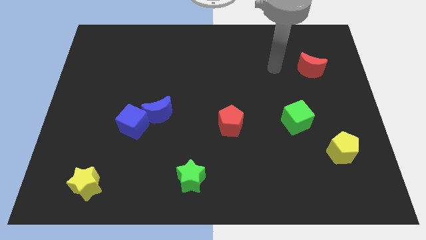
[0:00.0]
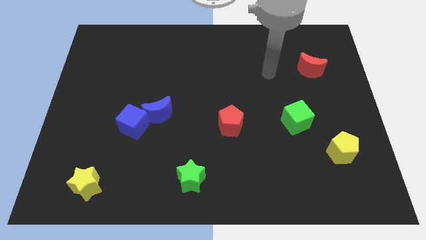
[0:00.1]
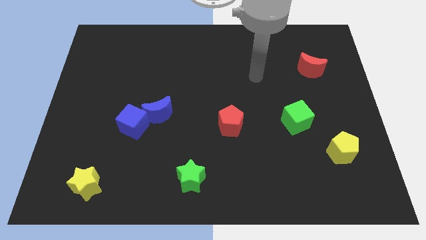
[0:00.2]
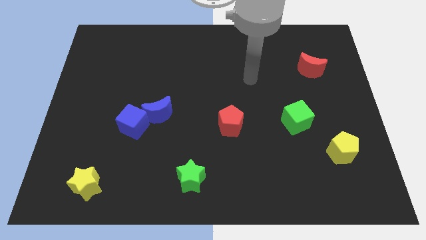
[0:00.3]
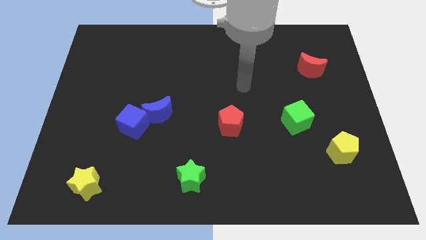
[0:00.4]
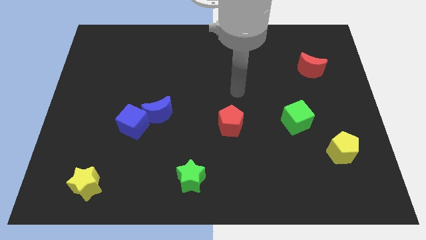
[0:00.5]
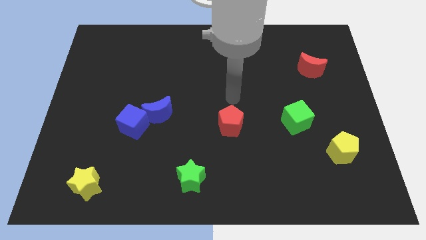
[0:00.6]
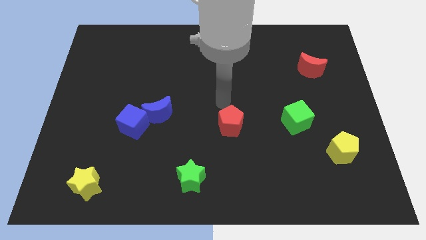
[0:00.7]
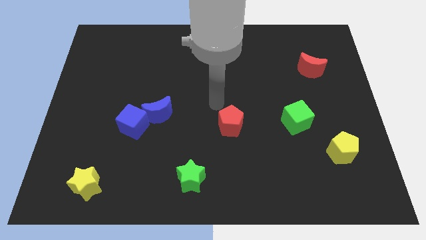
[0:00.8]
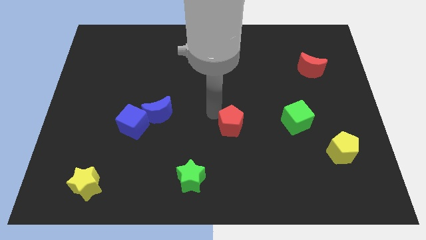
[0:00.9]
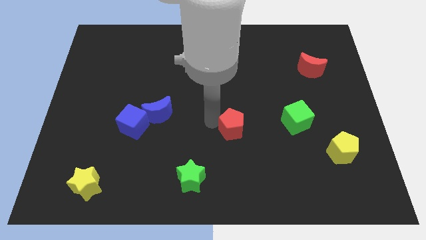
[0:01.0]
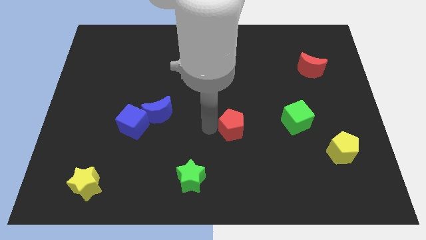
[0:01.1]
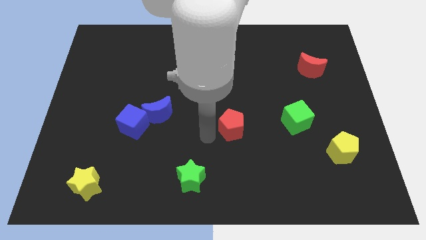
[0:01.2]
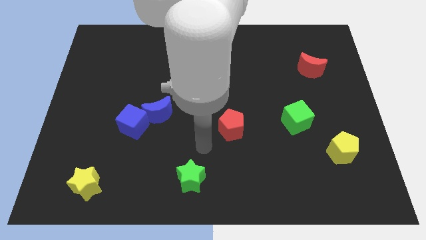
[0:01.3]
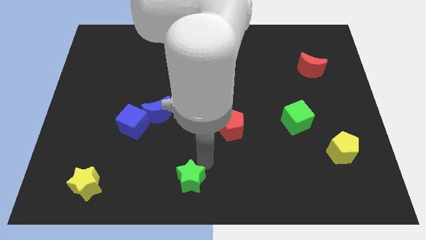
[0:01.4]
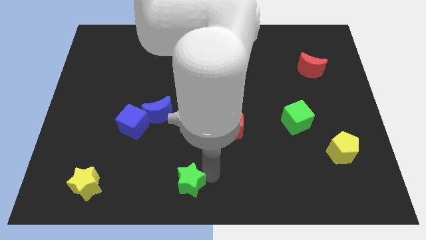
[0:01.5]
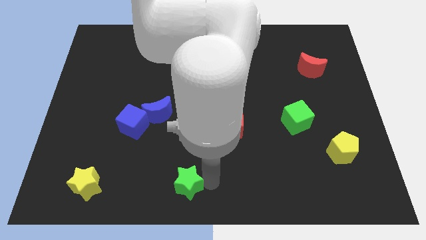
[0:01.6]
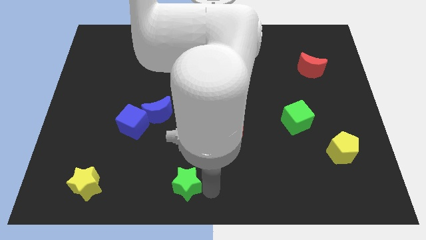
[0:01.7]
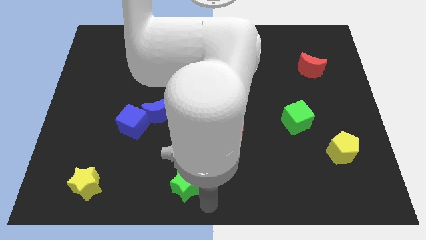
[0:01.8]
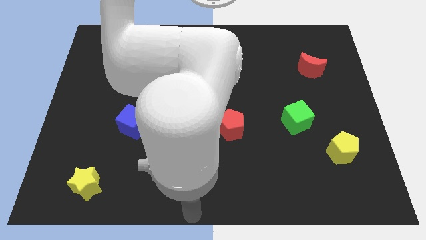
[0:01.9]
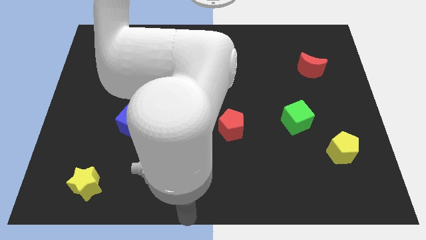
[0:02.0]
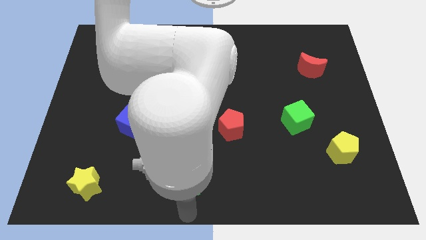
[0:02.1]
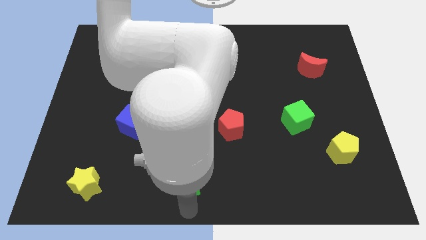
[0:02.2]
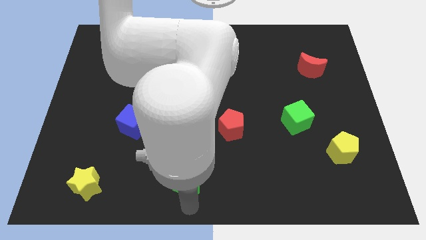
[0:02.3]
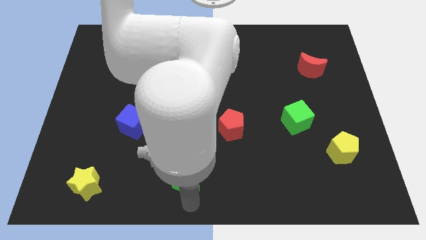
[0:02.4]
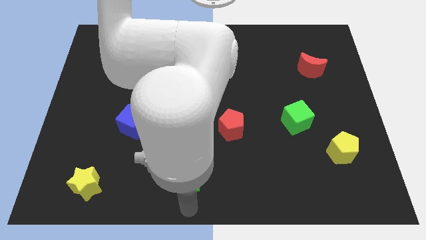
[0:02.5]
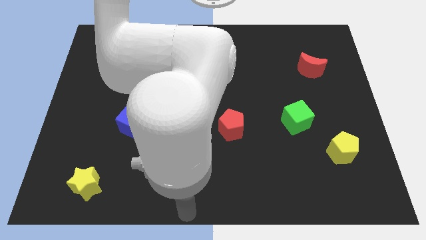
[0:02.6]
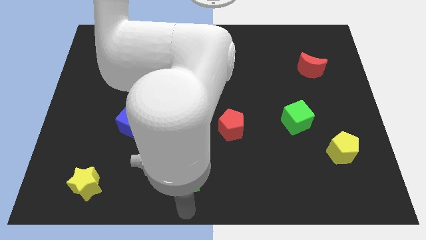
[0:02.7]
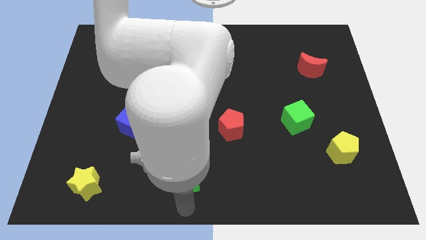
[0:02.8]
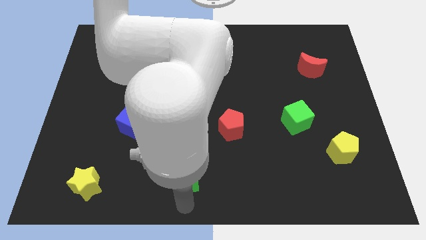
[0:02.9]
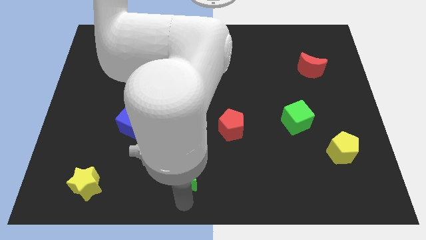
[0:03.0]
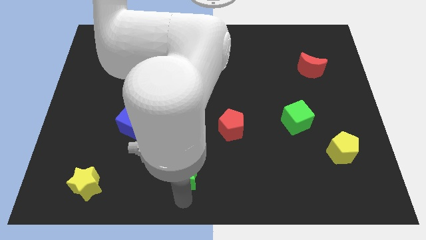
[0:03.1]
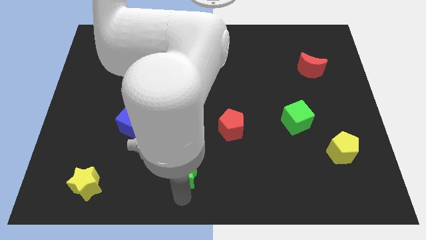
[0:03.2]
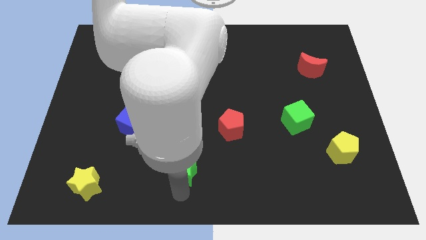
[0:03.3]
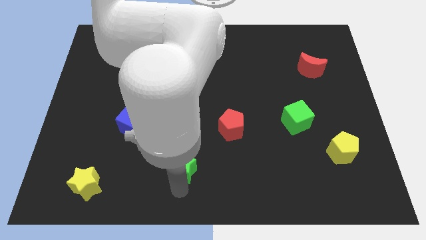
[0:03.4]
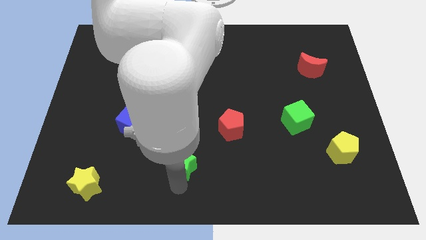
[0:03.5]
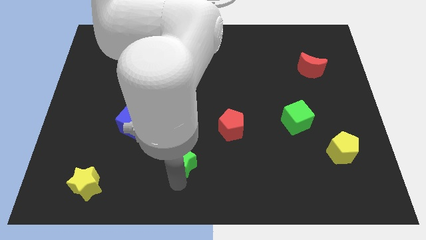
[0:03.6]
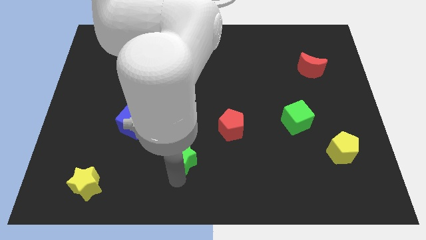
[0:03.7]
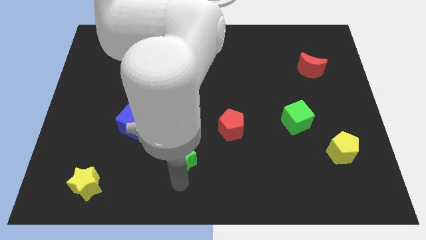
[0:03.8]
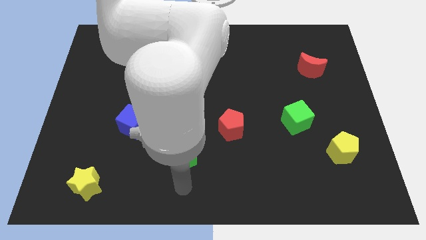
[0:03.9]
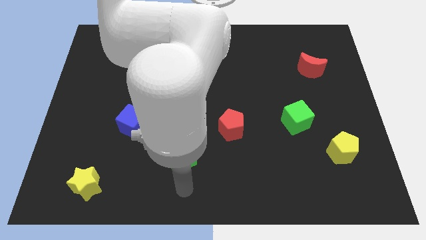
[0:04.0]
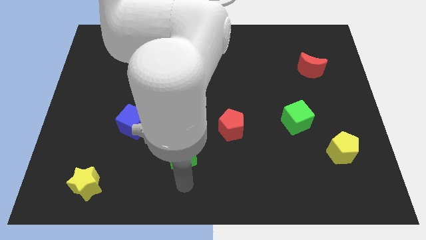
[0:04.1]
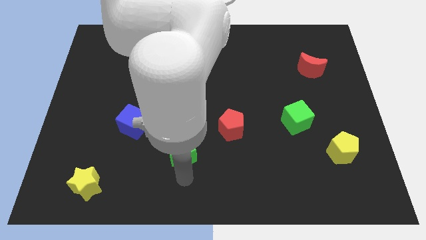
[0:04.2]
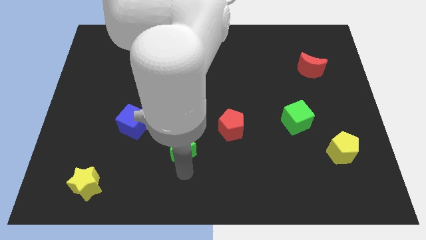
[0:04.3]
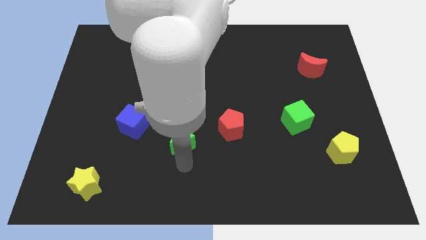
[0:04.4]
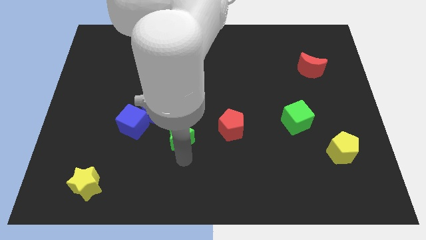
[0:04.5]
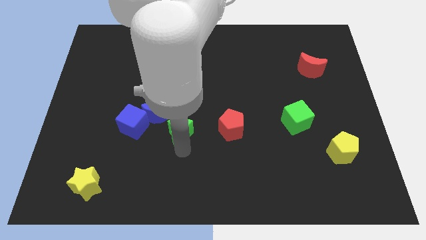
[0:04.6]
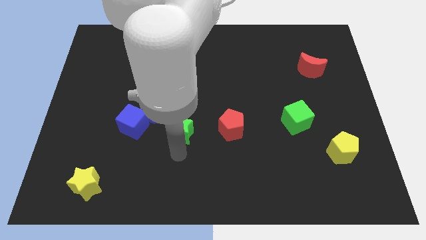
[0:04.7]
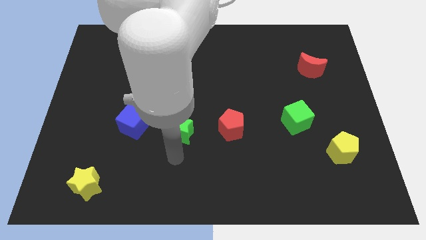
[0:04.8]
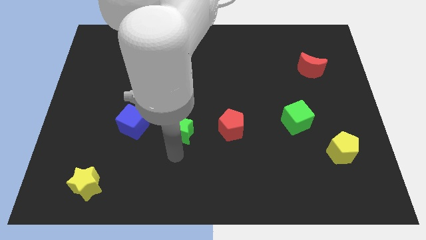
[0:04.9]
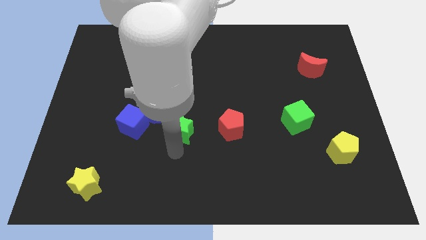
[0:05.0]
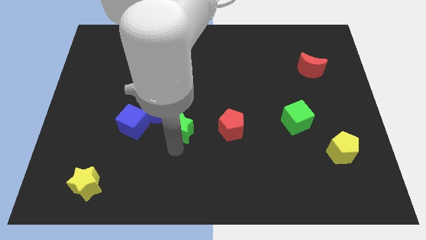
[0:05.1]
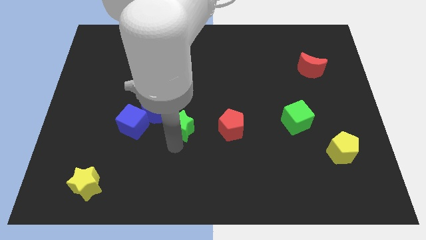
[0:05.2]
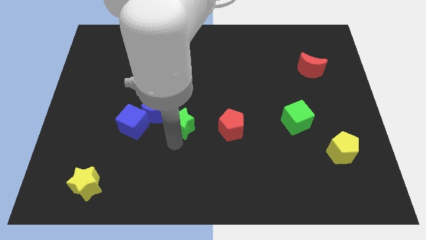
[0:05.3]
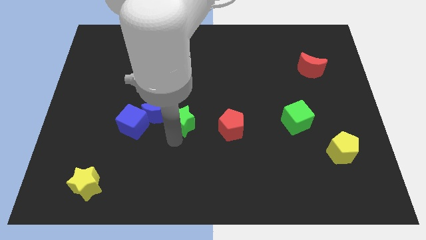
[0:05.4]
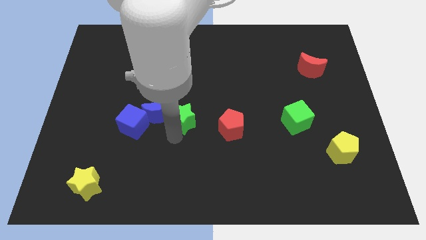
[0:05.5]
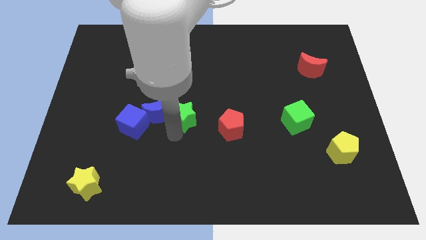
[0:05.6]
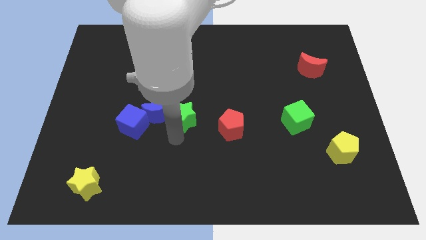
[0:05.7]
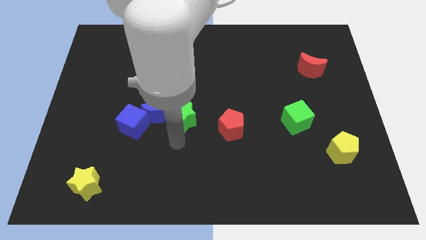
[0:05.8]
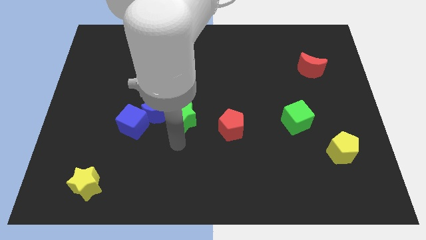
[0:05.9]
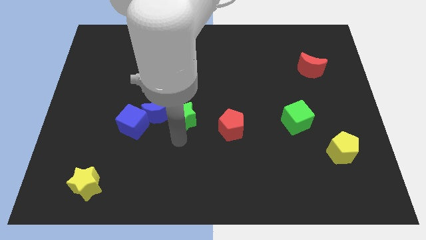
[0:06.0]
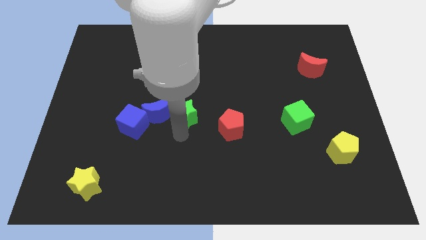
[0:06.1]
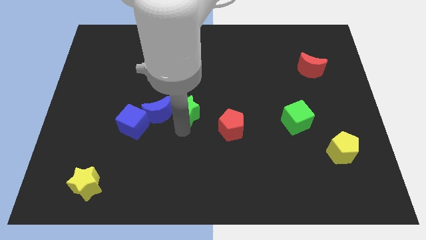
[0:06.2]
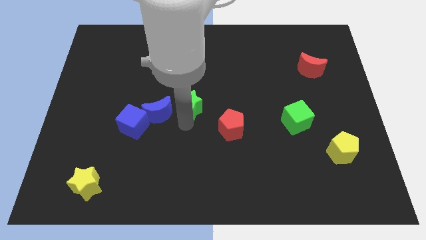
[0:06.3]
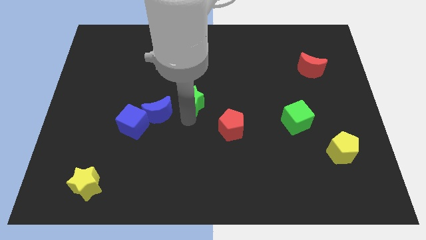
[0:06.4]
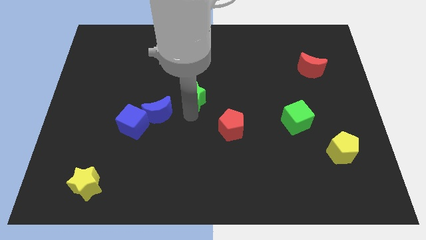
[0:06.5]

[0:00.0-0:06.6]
slide the green star up

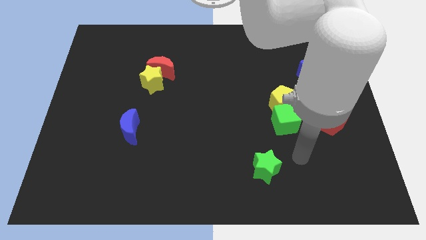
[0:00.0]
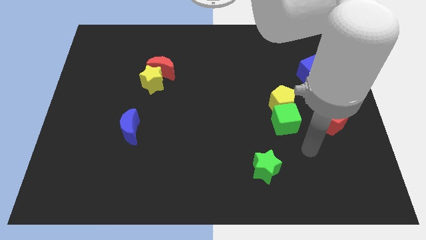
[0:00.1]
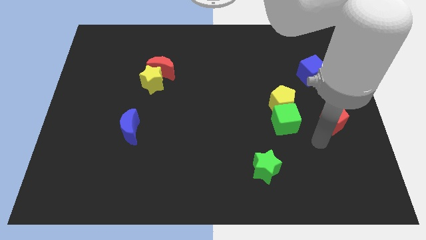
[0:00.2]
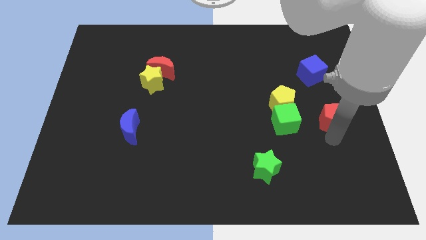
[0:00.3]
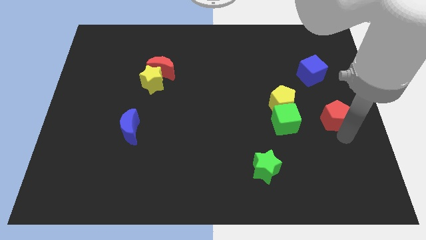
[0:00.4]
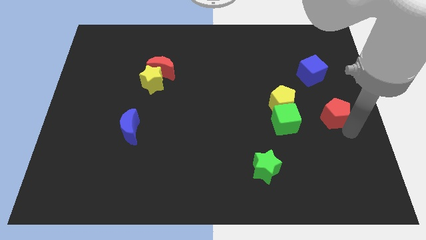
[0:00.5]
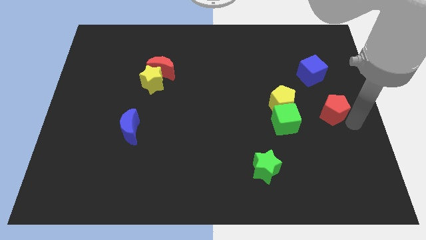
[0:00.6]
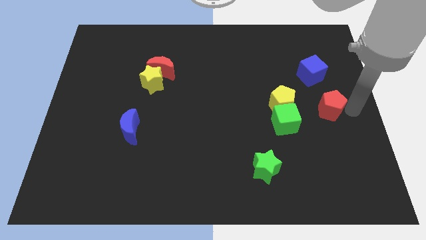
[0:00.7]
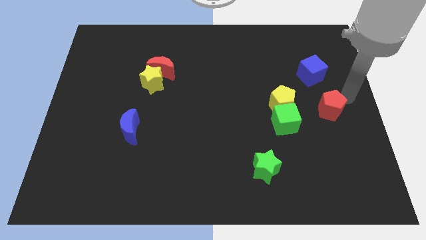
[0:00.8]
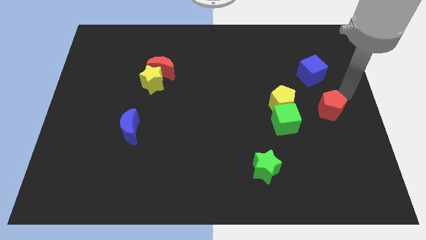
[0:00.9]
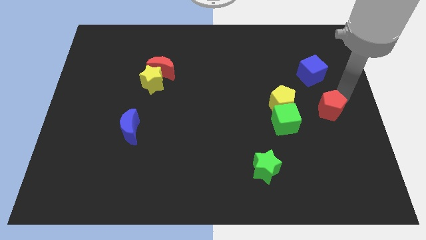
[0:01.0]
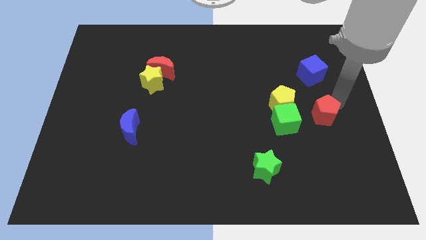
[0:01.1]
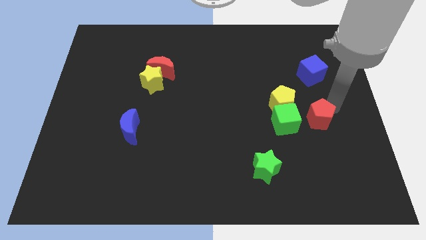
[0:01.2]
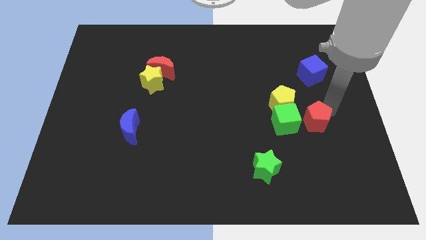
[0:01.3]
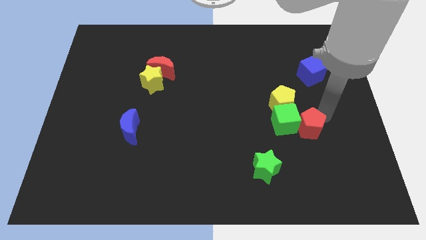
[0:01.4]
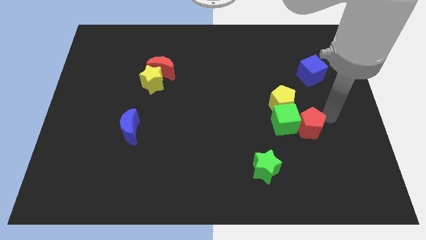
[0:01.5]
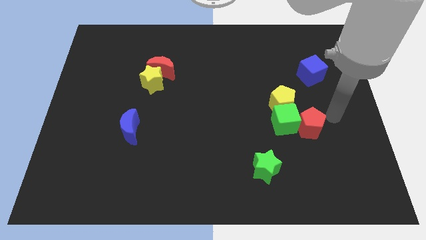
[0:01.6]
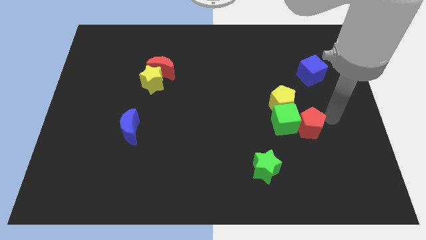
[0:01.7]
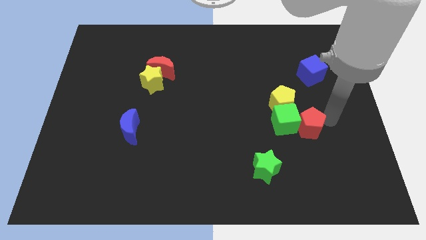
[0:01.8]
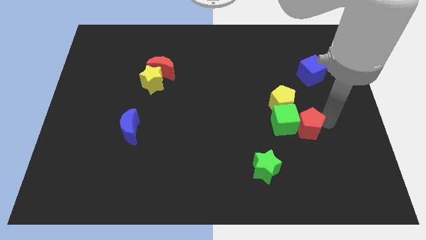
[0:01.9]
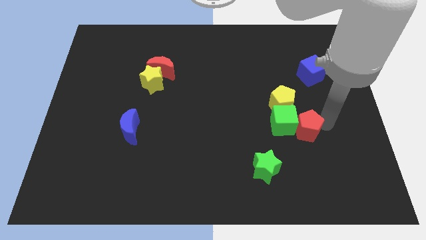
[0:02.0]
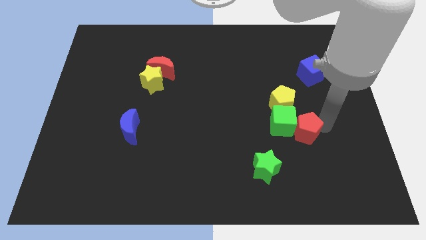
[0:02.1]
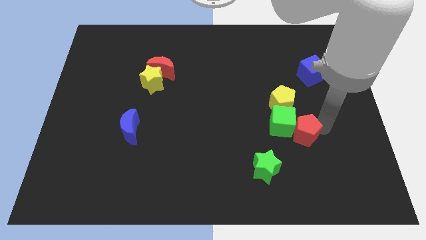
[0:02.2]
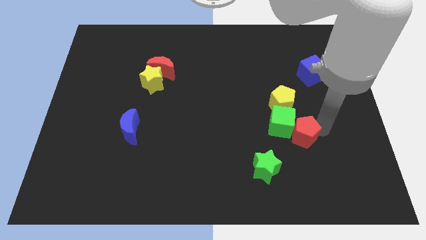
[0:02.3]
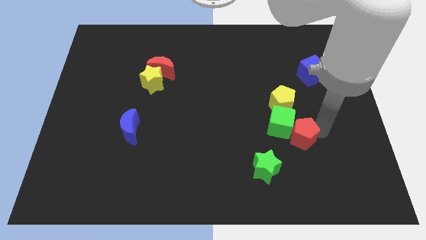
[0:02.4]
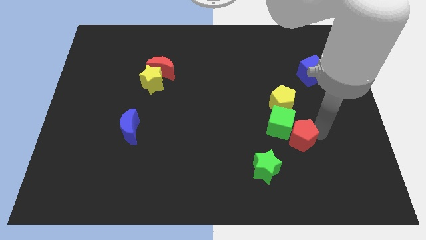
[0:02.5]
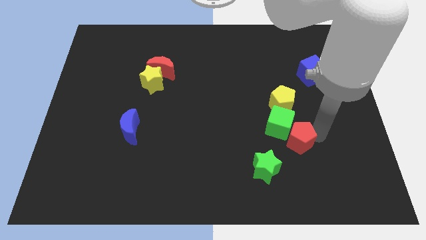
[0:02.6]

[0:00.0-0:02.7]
slightly push the red pentagon left
